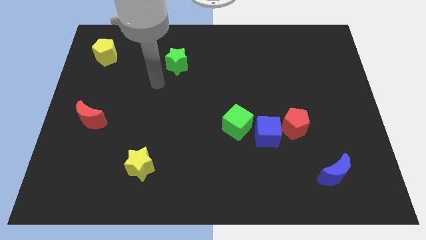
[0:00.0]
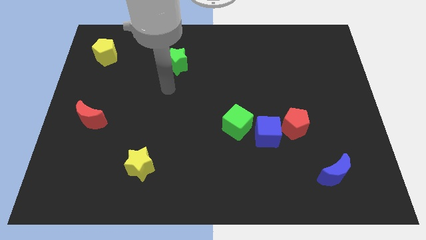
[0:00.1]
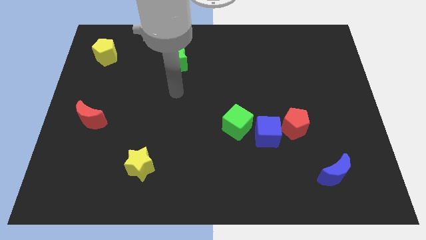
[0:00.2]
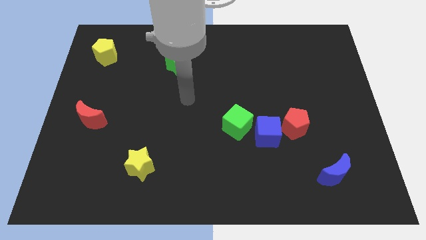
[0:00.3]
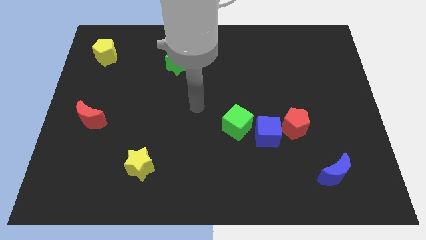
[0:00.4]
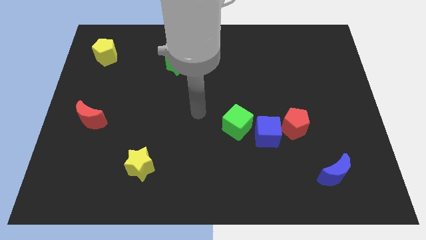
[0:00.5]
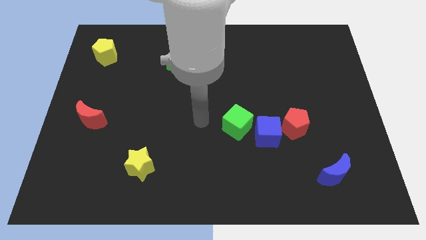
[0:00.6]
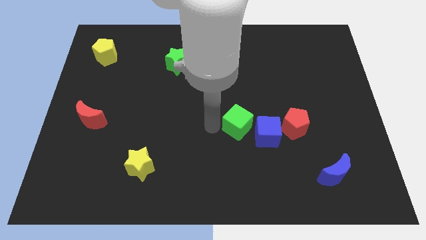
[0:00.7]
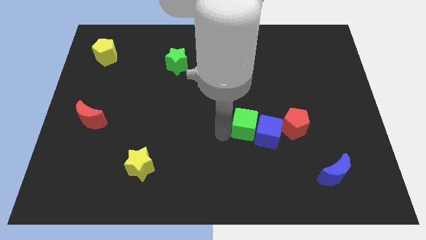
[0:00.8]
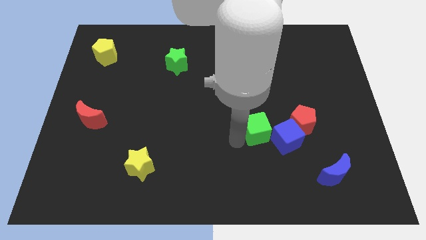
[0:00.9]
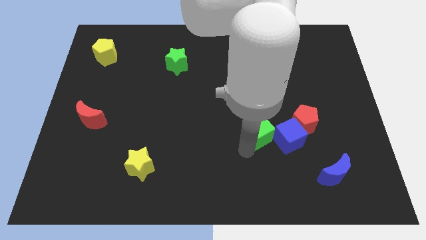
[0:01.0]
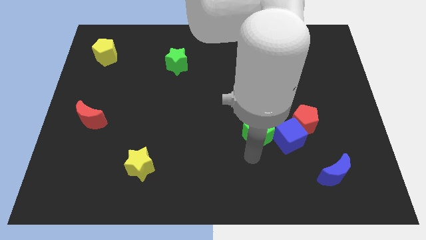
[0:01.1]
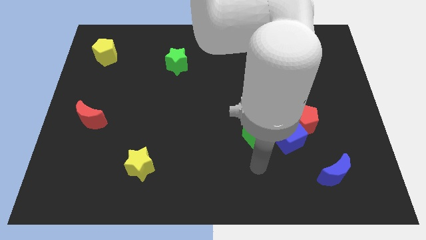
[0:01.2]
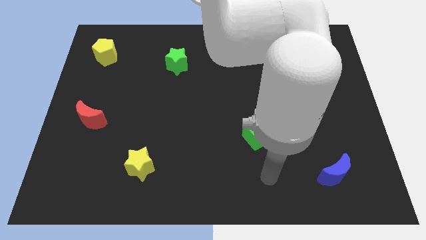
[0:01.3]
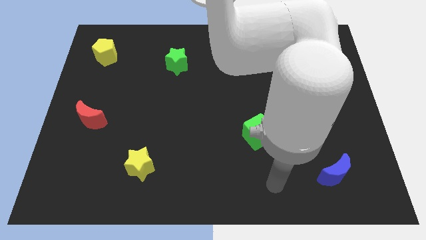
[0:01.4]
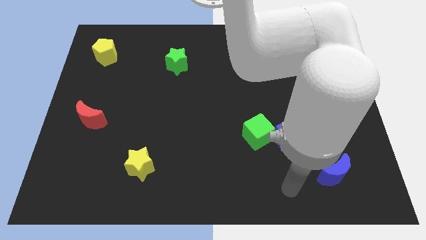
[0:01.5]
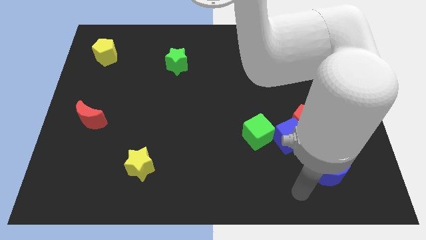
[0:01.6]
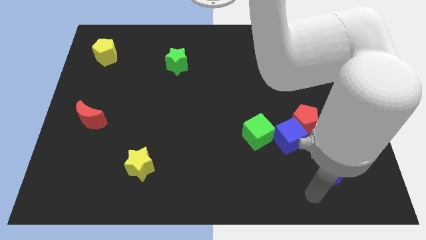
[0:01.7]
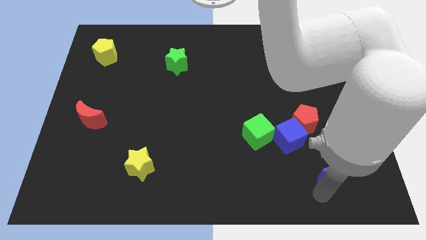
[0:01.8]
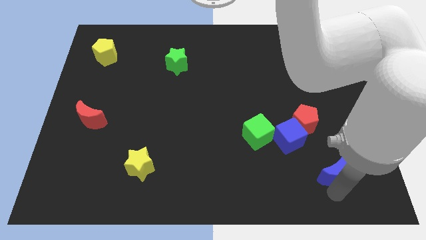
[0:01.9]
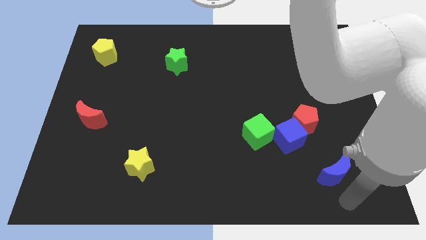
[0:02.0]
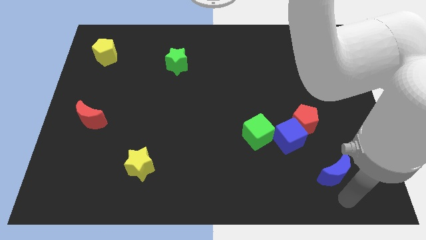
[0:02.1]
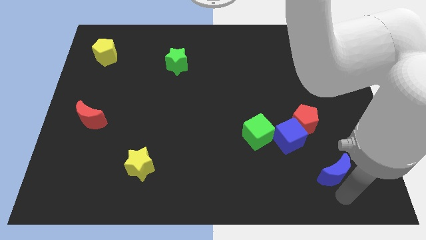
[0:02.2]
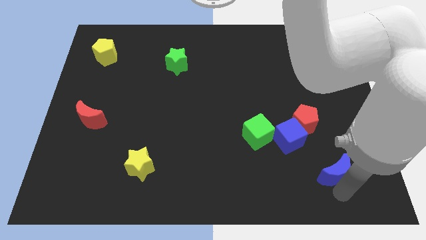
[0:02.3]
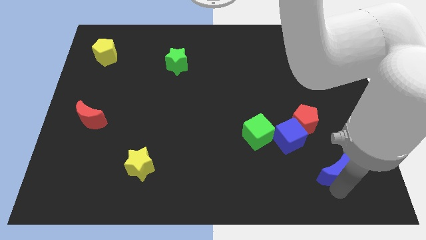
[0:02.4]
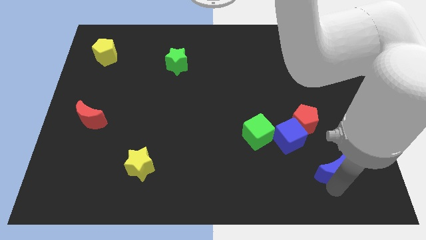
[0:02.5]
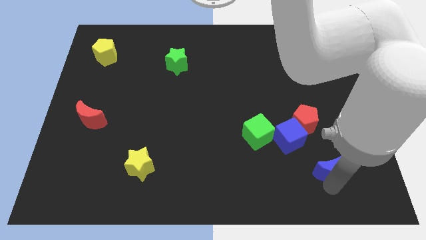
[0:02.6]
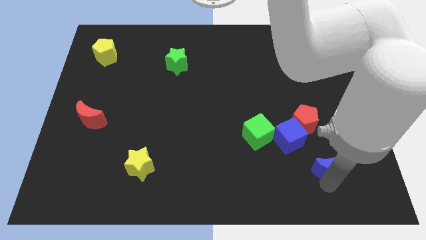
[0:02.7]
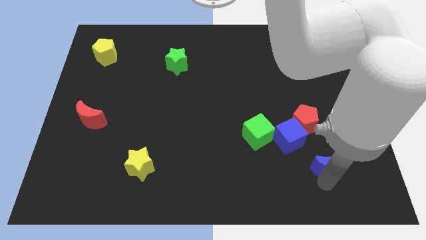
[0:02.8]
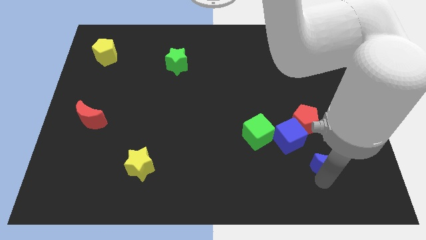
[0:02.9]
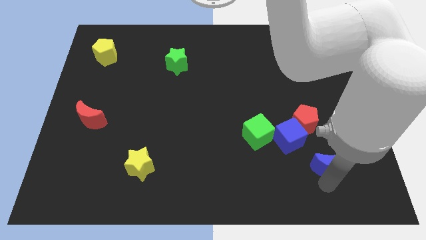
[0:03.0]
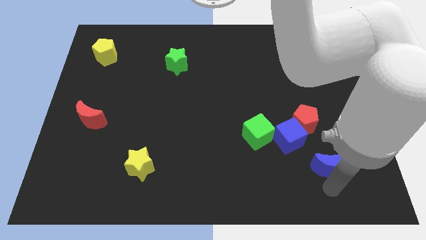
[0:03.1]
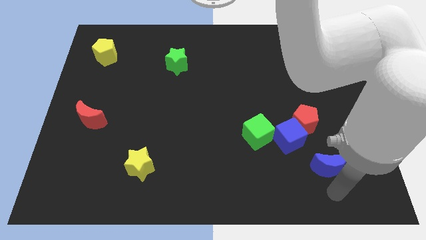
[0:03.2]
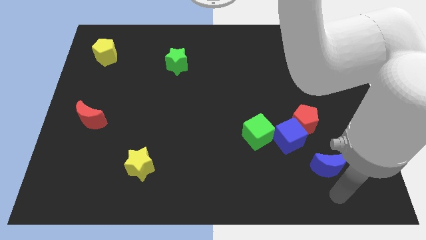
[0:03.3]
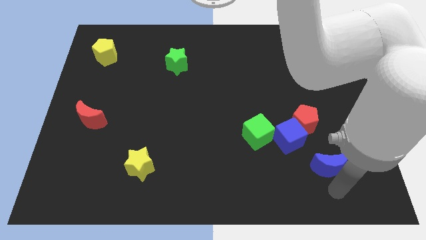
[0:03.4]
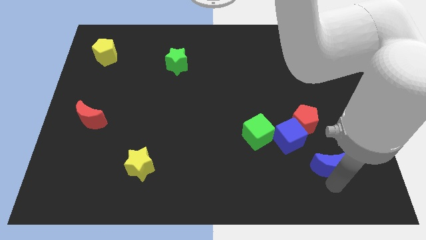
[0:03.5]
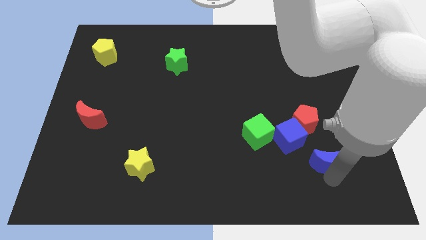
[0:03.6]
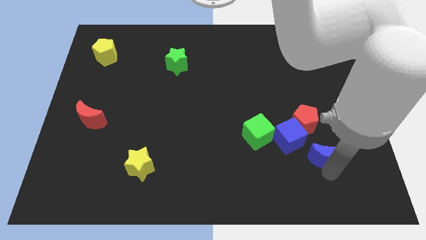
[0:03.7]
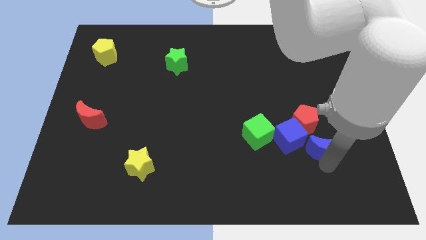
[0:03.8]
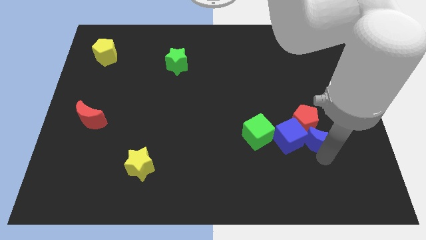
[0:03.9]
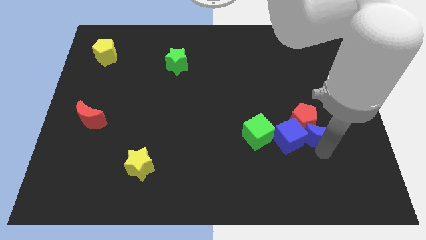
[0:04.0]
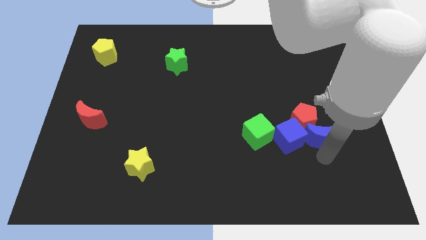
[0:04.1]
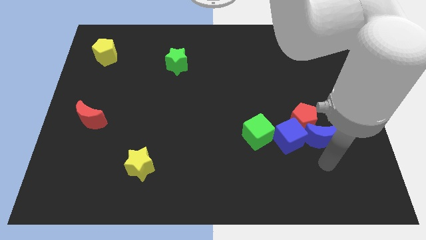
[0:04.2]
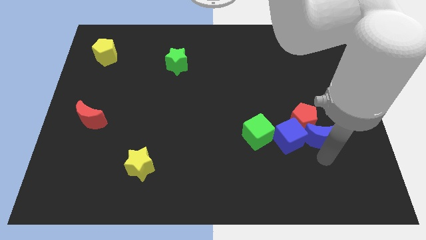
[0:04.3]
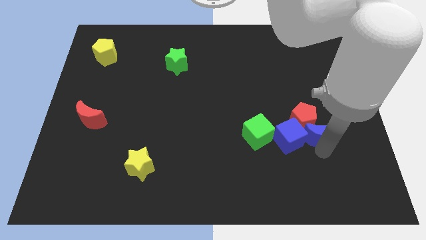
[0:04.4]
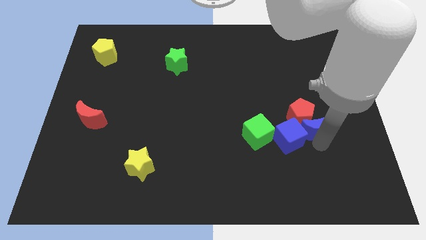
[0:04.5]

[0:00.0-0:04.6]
slide the blue moon upwards and left diagonally somewhat

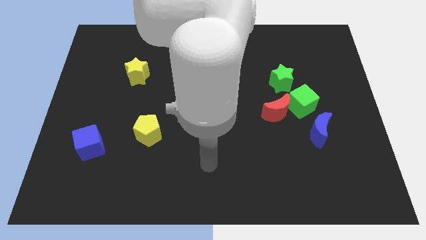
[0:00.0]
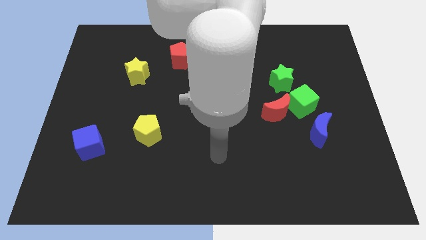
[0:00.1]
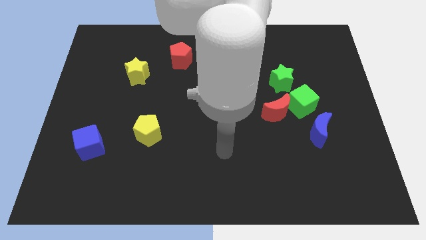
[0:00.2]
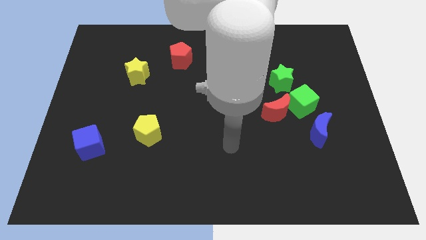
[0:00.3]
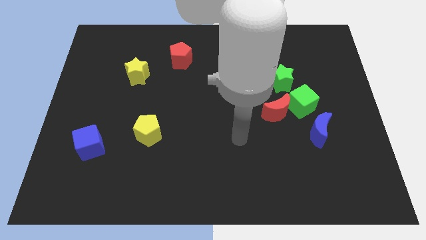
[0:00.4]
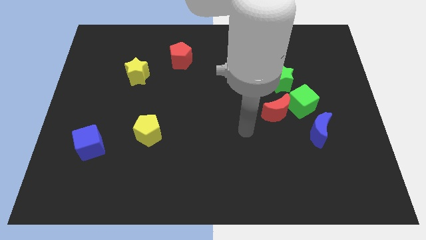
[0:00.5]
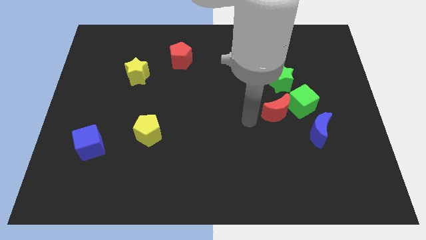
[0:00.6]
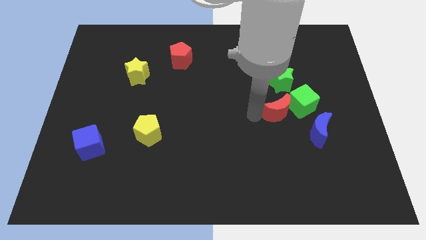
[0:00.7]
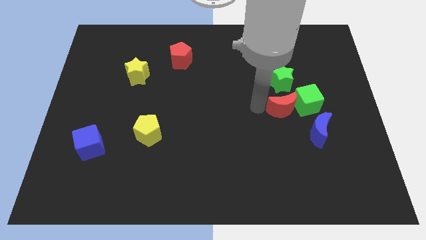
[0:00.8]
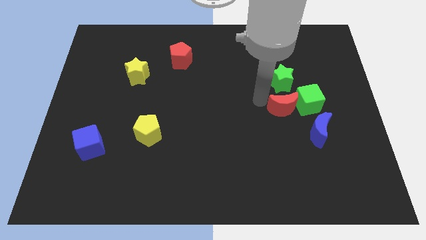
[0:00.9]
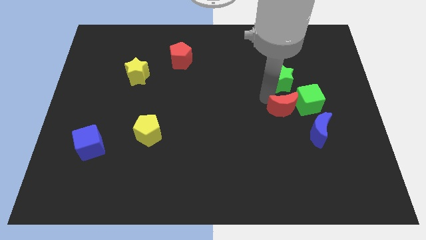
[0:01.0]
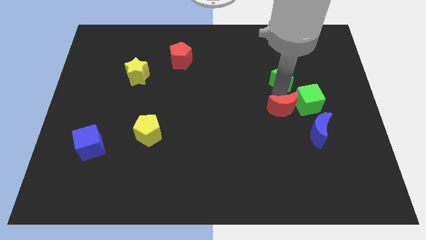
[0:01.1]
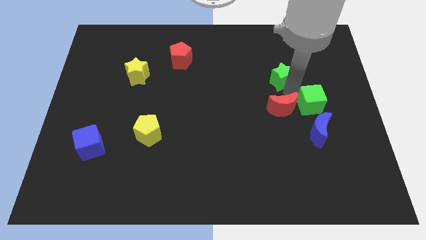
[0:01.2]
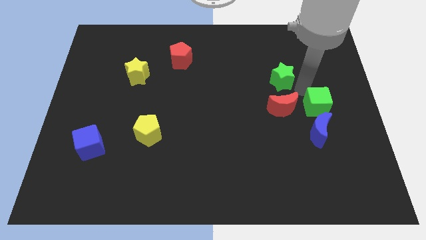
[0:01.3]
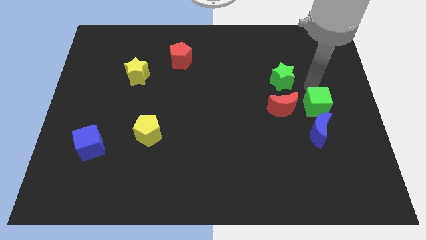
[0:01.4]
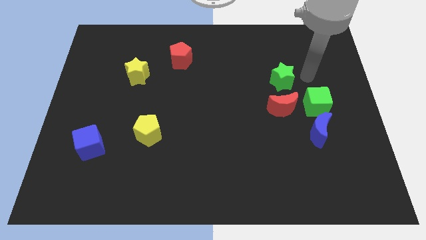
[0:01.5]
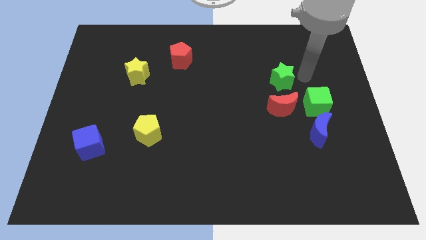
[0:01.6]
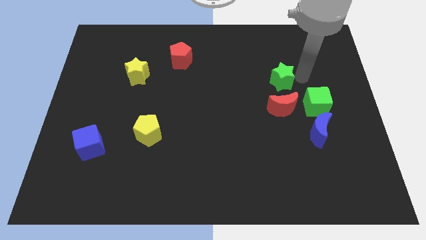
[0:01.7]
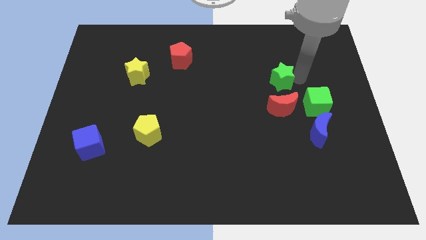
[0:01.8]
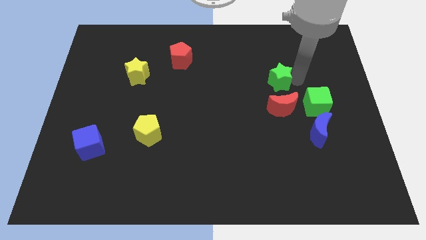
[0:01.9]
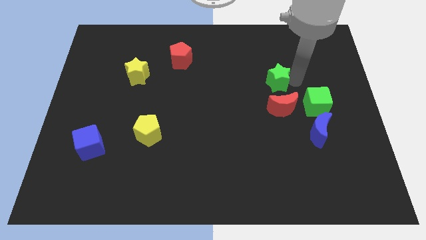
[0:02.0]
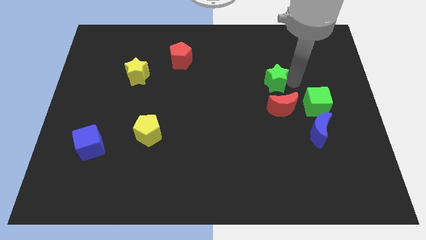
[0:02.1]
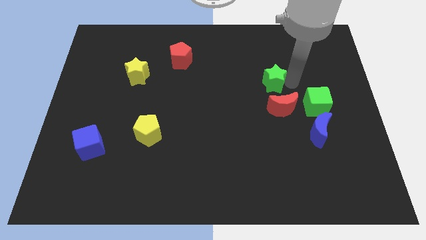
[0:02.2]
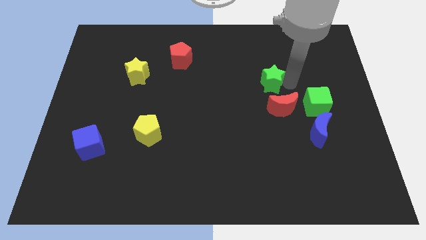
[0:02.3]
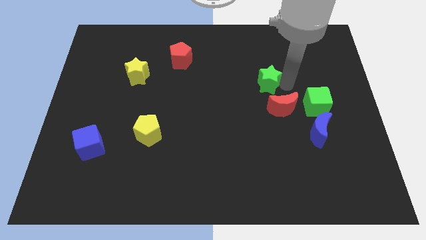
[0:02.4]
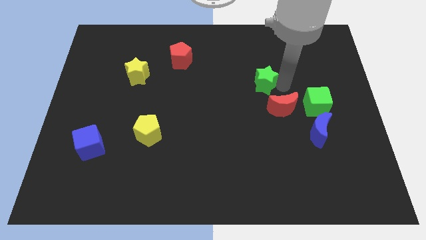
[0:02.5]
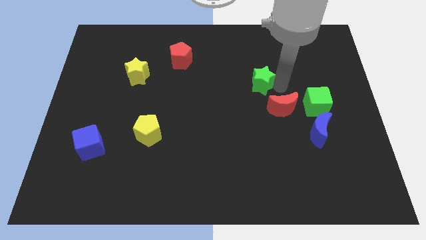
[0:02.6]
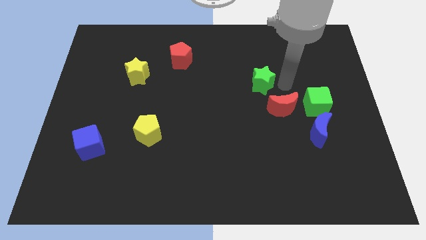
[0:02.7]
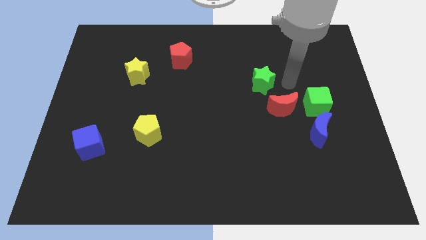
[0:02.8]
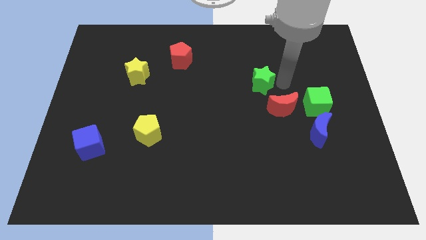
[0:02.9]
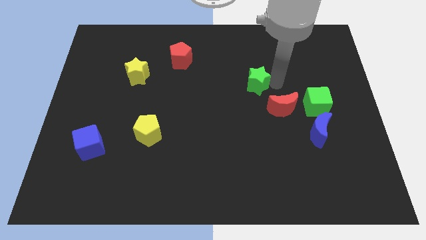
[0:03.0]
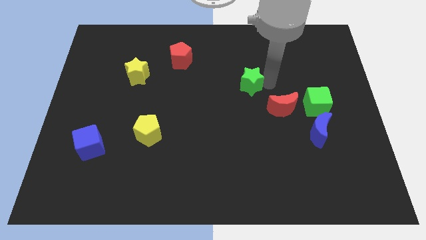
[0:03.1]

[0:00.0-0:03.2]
slide the green star a little bit left

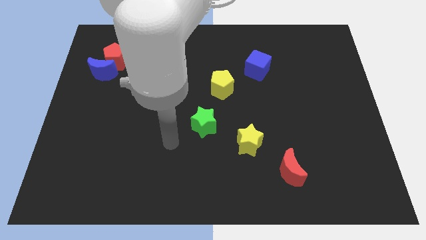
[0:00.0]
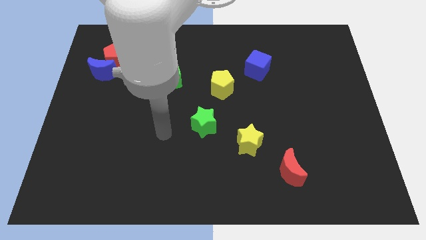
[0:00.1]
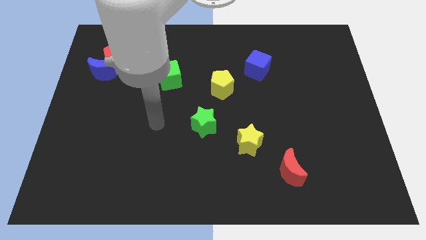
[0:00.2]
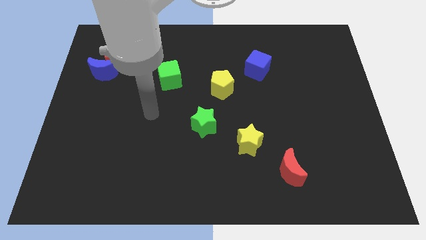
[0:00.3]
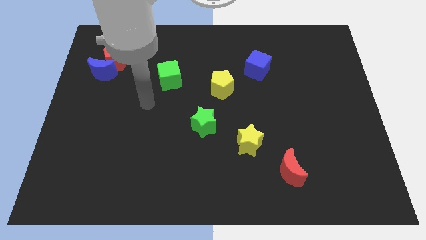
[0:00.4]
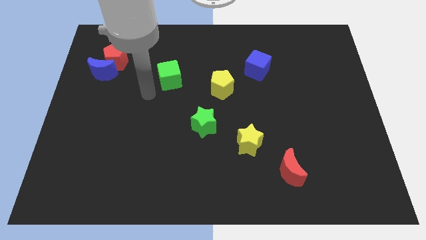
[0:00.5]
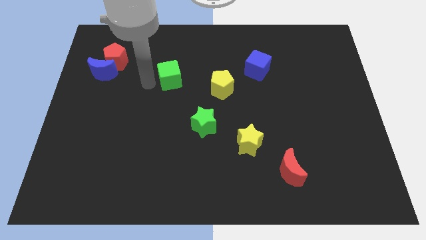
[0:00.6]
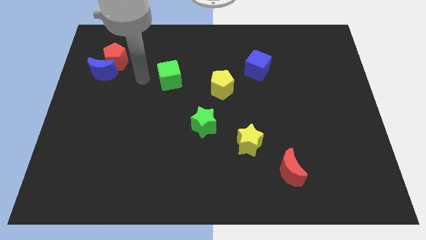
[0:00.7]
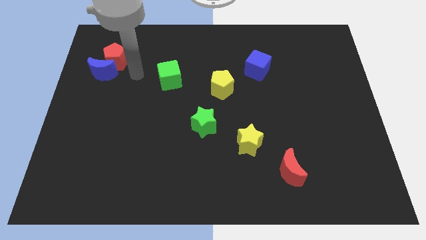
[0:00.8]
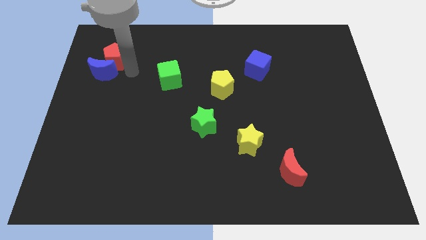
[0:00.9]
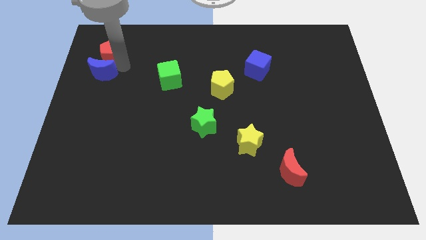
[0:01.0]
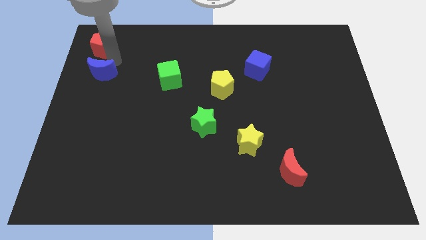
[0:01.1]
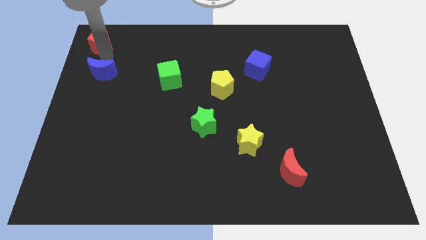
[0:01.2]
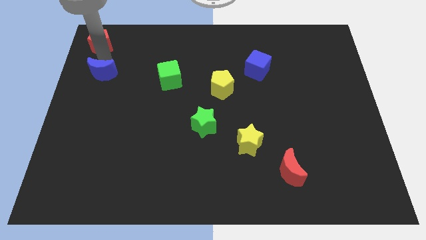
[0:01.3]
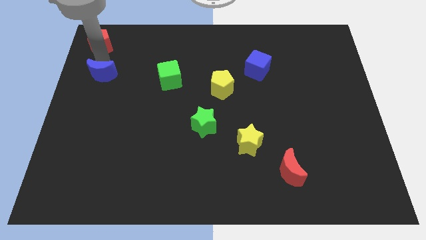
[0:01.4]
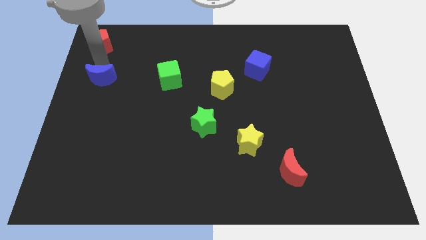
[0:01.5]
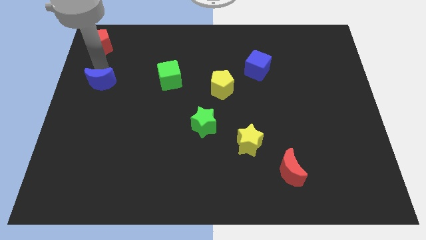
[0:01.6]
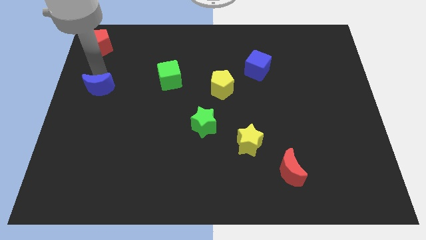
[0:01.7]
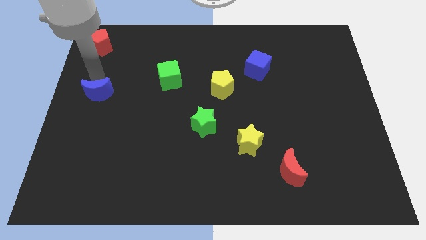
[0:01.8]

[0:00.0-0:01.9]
slightly push the blue moon down
